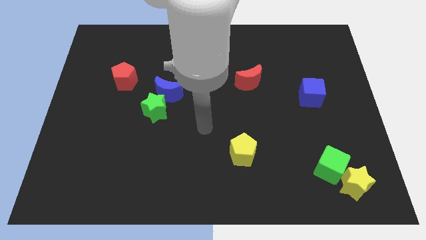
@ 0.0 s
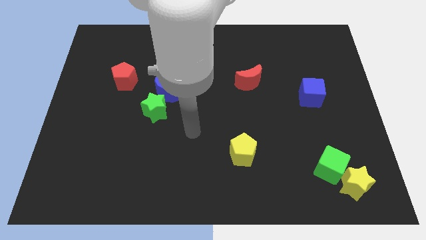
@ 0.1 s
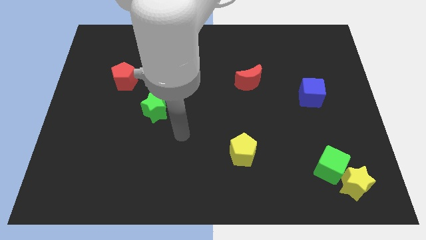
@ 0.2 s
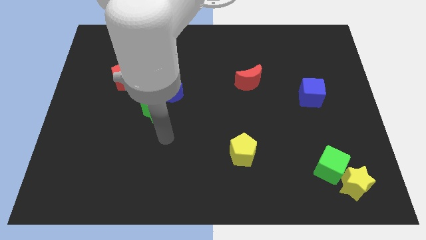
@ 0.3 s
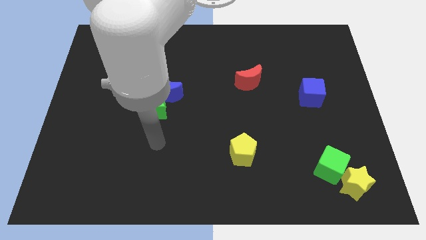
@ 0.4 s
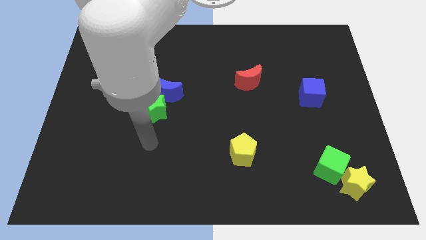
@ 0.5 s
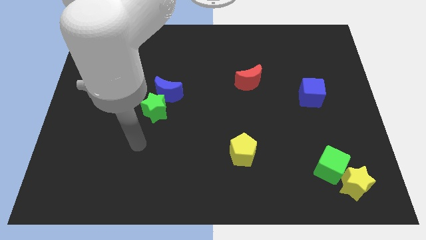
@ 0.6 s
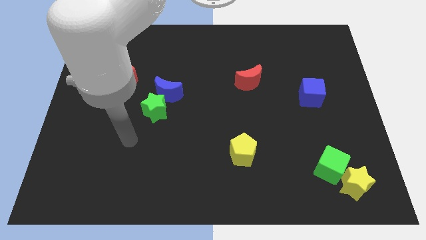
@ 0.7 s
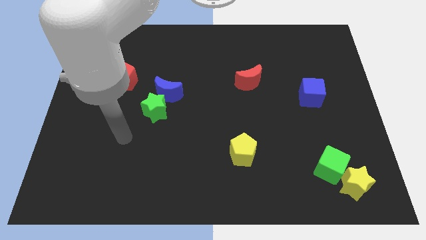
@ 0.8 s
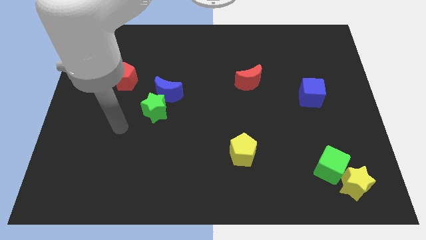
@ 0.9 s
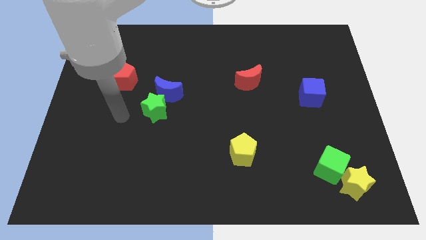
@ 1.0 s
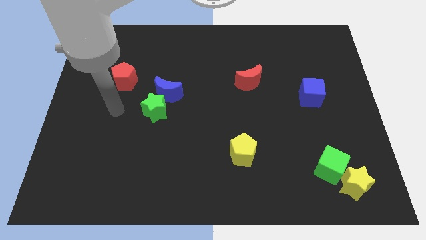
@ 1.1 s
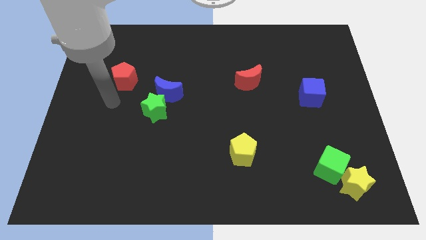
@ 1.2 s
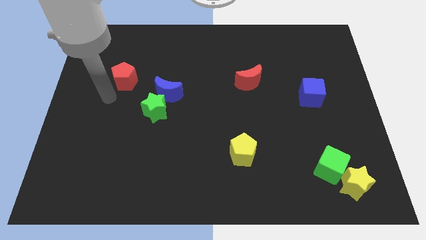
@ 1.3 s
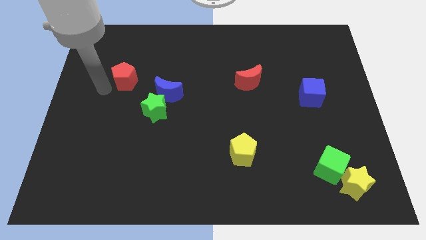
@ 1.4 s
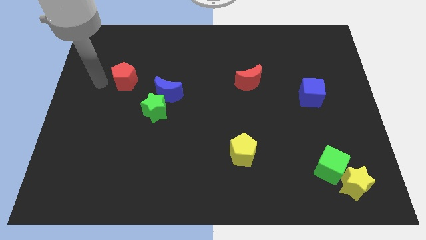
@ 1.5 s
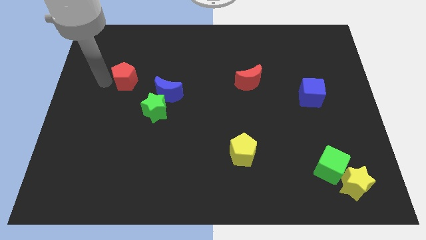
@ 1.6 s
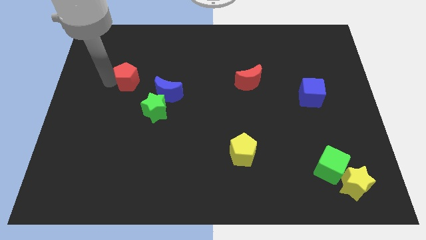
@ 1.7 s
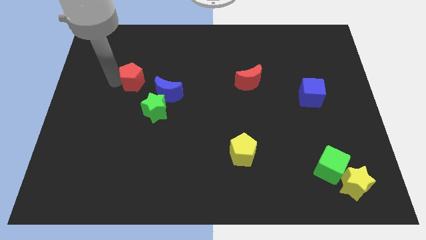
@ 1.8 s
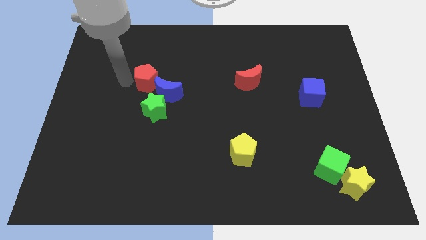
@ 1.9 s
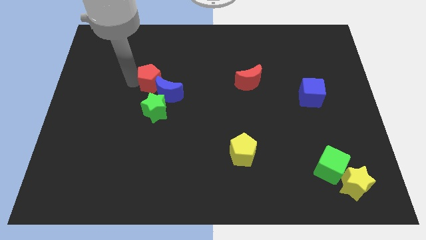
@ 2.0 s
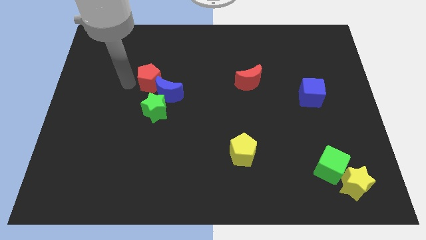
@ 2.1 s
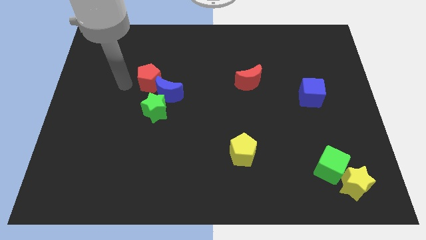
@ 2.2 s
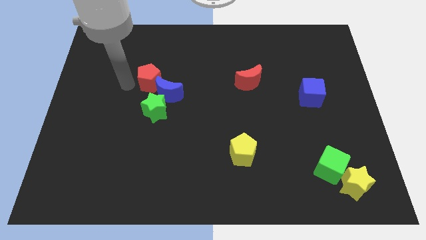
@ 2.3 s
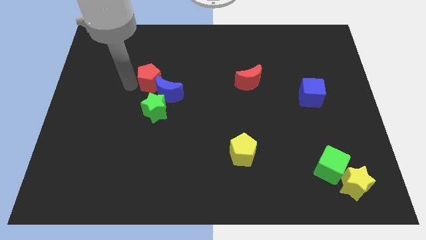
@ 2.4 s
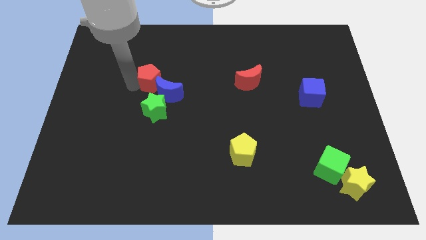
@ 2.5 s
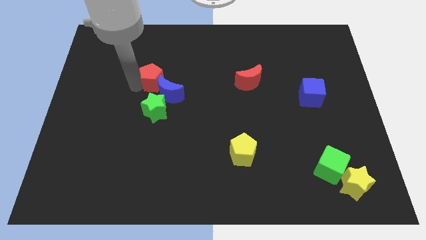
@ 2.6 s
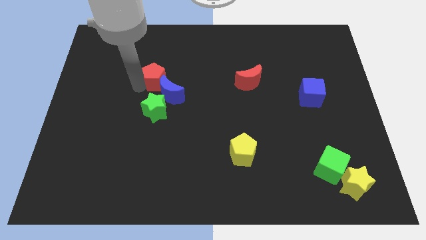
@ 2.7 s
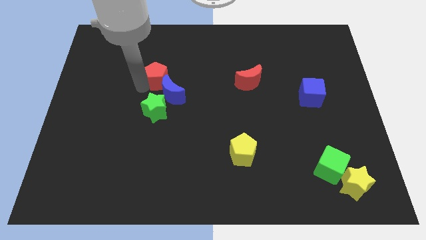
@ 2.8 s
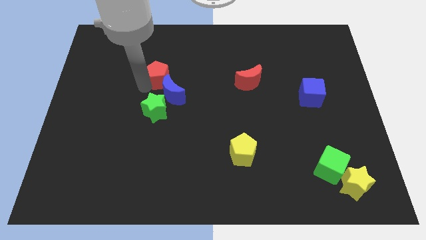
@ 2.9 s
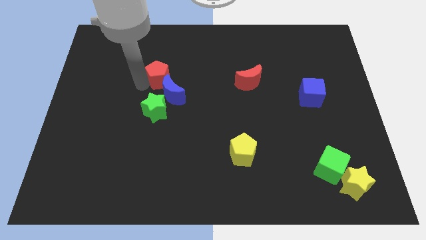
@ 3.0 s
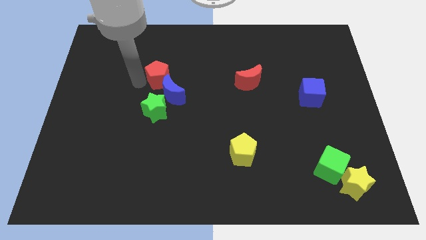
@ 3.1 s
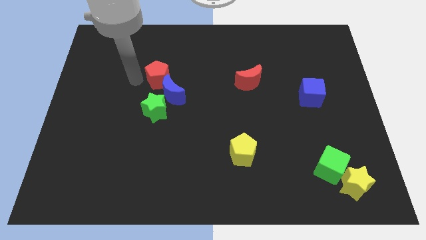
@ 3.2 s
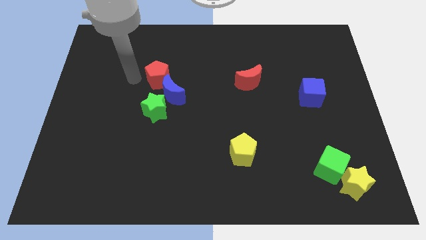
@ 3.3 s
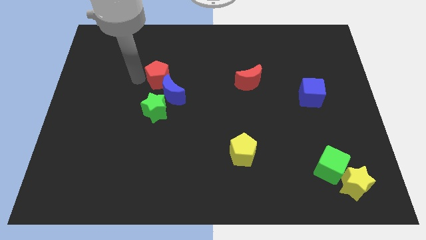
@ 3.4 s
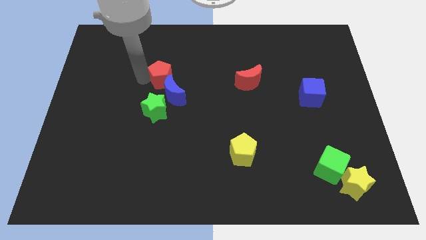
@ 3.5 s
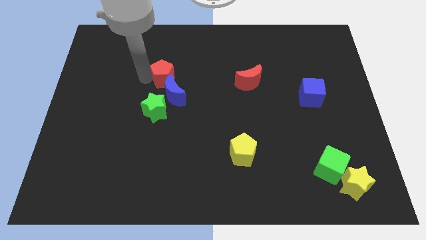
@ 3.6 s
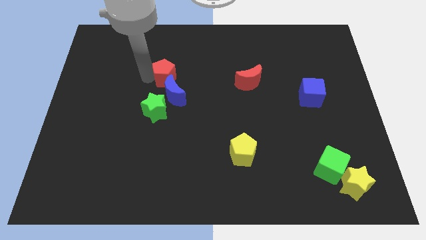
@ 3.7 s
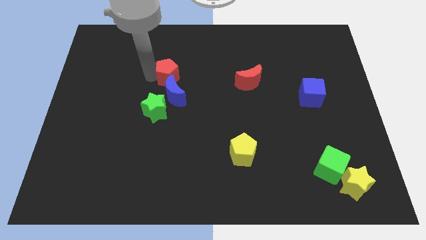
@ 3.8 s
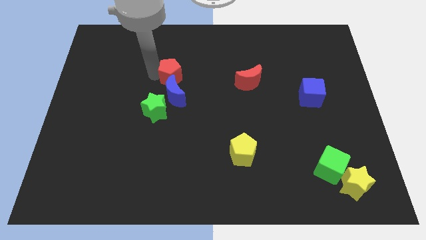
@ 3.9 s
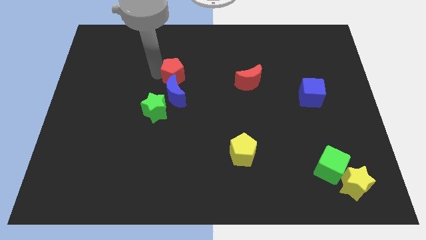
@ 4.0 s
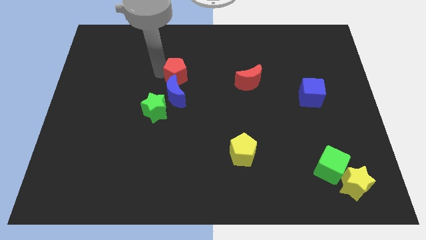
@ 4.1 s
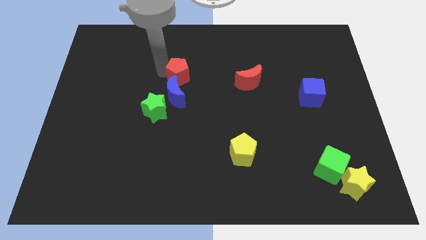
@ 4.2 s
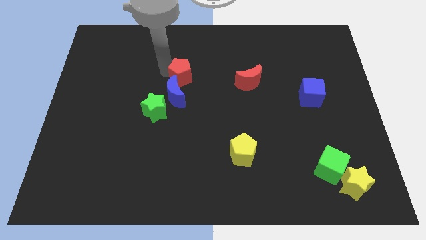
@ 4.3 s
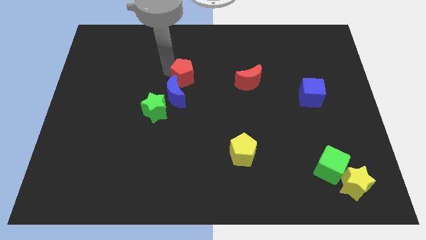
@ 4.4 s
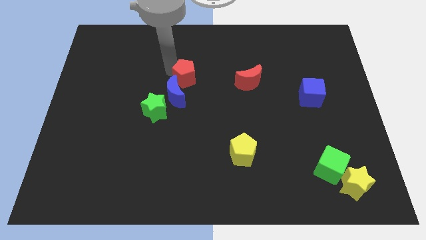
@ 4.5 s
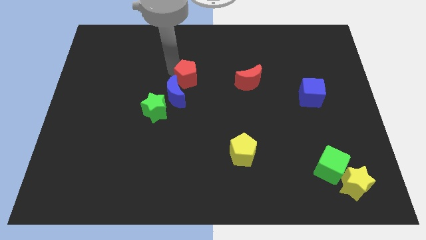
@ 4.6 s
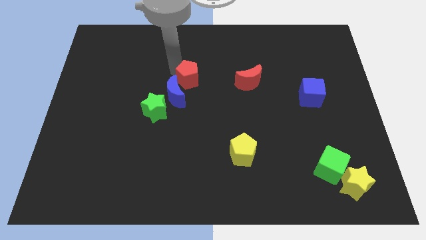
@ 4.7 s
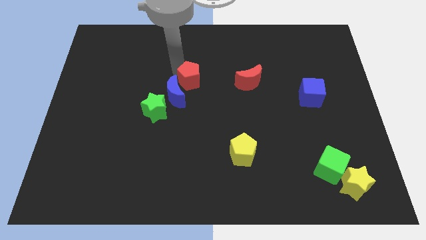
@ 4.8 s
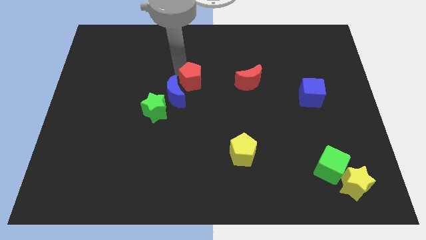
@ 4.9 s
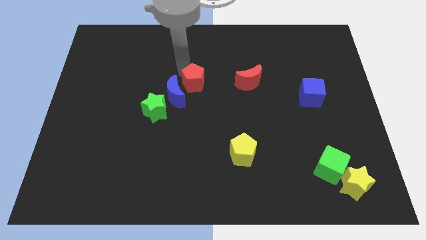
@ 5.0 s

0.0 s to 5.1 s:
push the red pentagon right of the blue moon

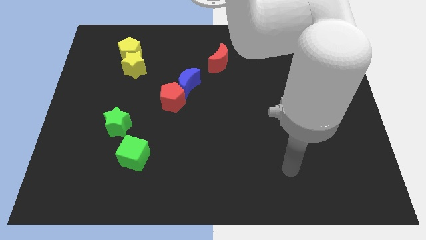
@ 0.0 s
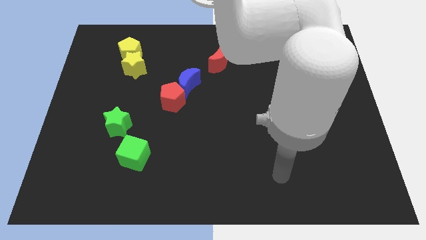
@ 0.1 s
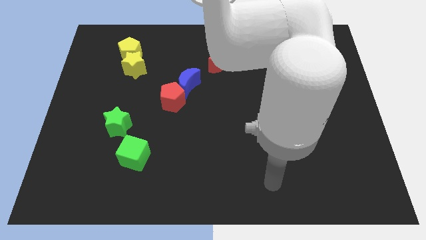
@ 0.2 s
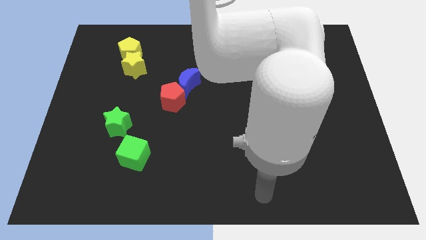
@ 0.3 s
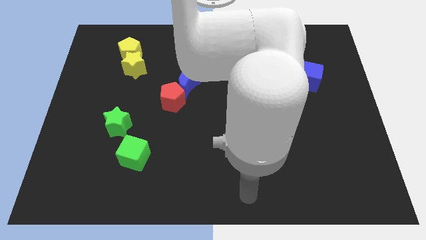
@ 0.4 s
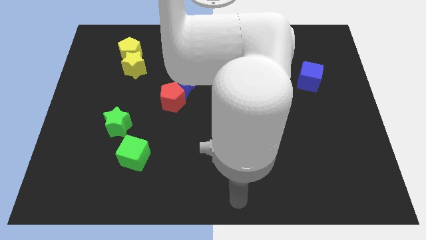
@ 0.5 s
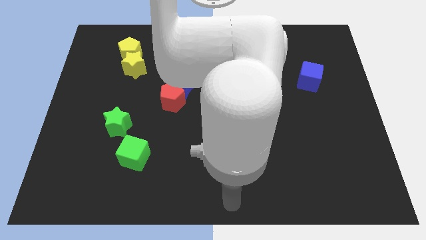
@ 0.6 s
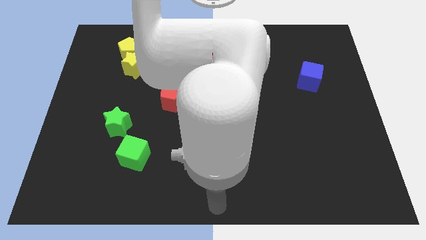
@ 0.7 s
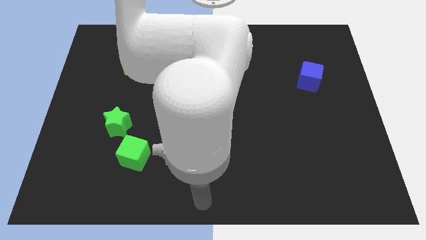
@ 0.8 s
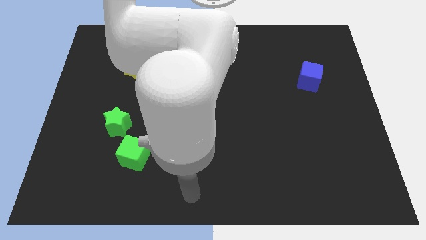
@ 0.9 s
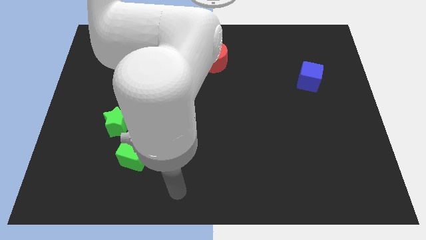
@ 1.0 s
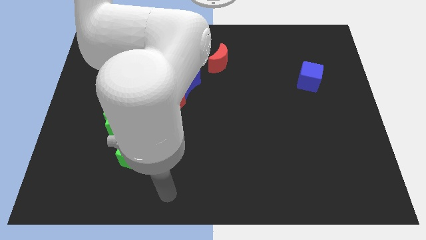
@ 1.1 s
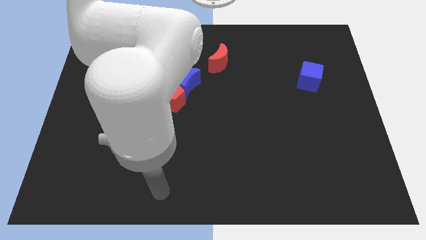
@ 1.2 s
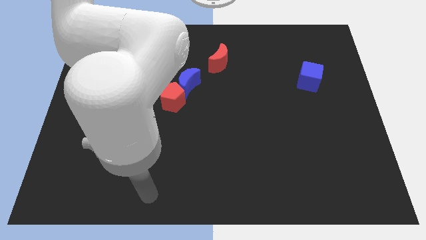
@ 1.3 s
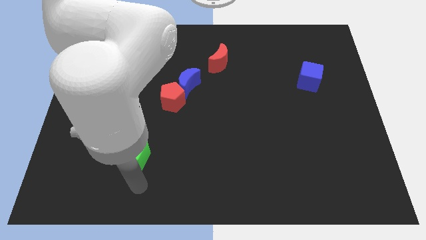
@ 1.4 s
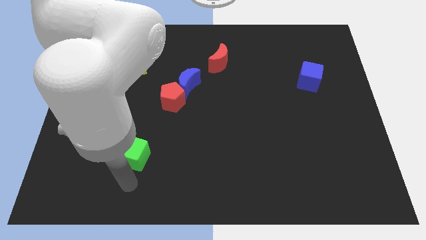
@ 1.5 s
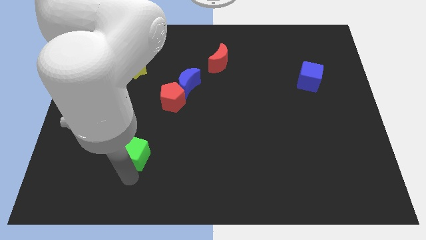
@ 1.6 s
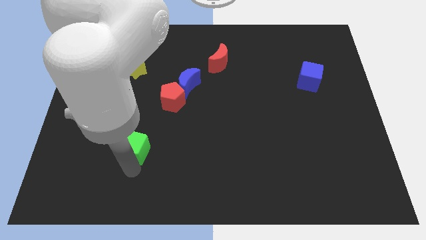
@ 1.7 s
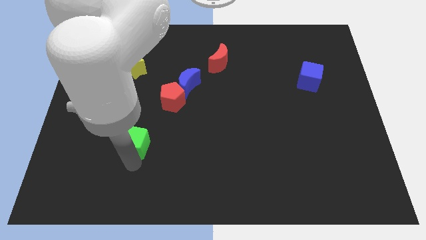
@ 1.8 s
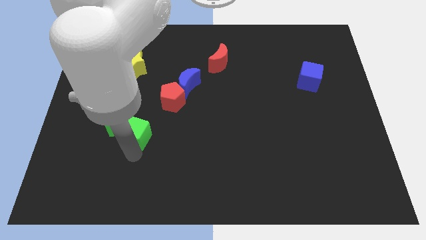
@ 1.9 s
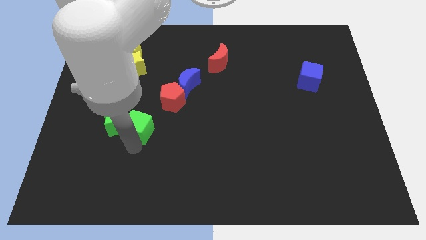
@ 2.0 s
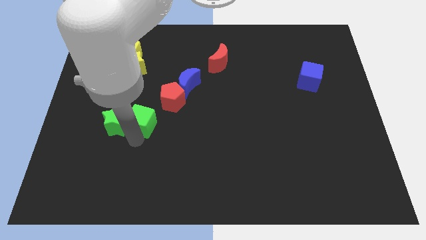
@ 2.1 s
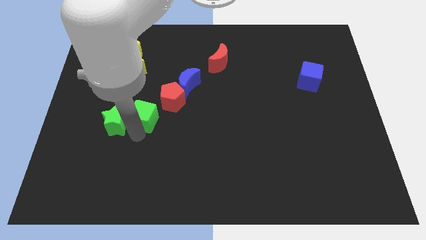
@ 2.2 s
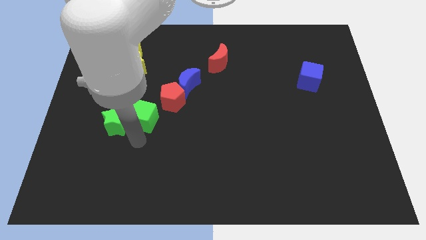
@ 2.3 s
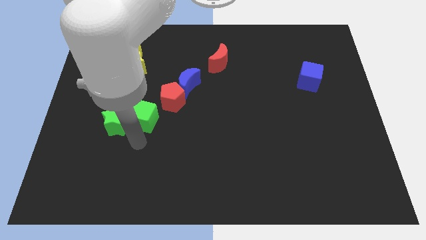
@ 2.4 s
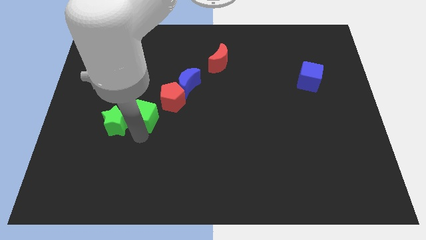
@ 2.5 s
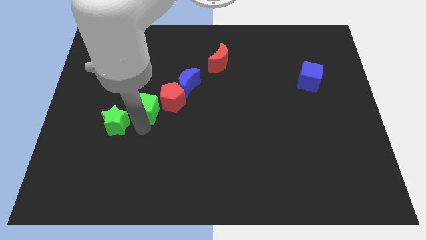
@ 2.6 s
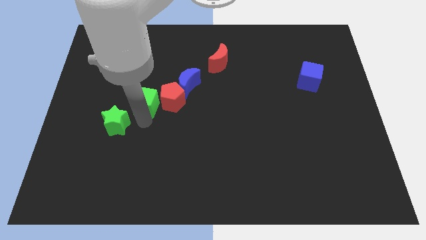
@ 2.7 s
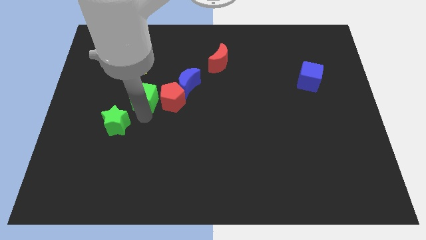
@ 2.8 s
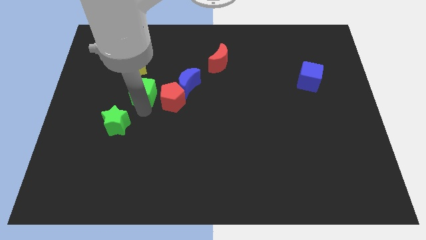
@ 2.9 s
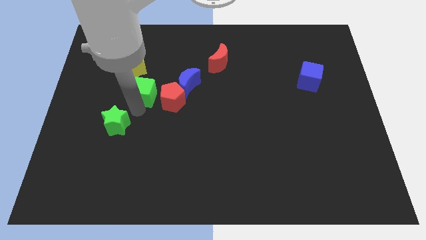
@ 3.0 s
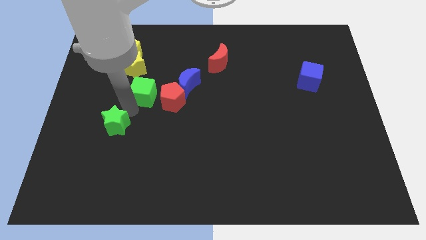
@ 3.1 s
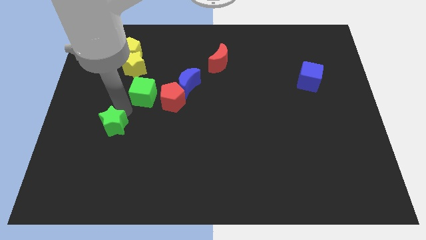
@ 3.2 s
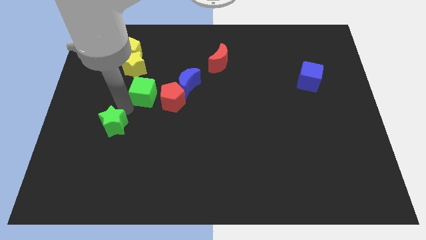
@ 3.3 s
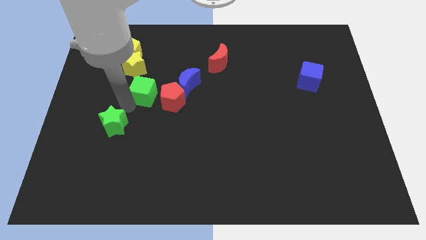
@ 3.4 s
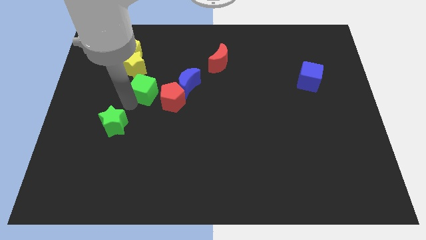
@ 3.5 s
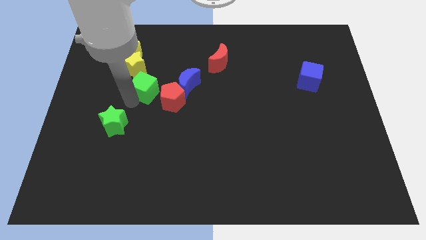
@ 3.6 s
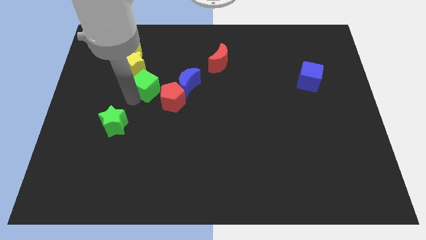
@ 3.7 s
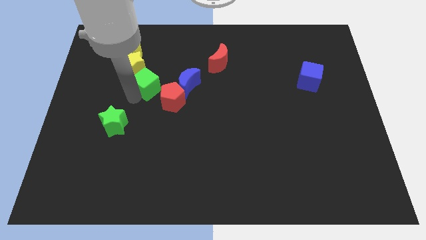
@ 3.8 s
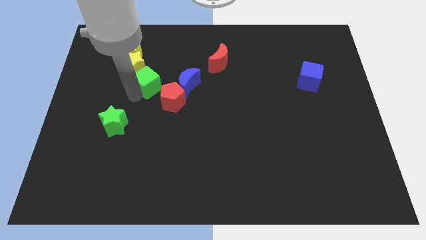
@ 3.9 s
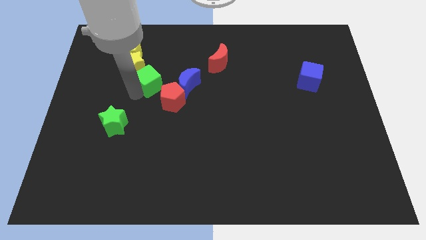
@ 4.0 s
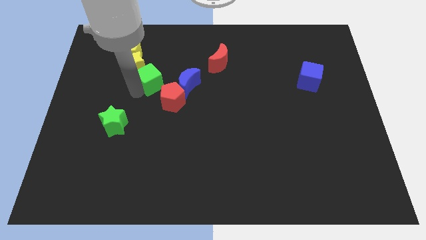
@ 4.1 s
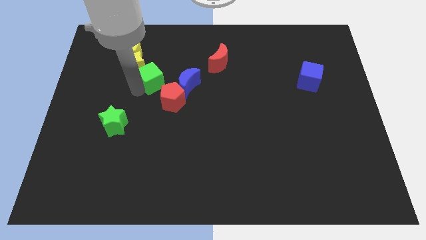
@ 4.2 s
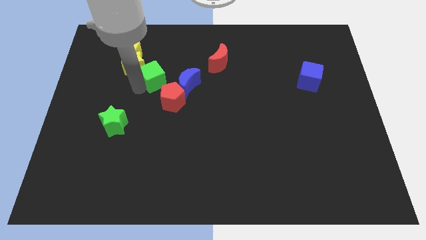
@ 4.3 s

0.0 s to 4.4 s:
move the green cube to the top left side of the blue moon
